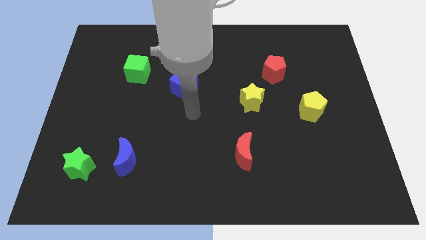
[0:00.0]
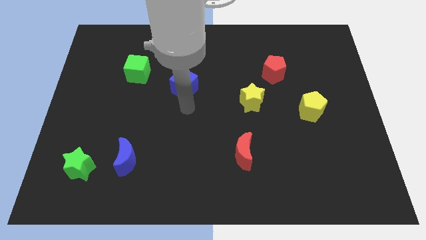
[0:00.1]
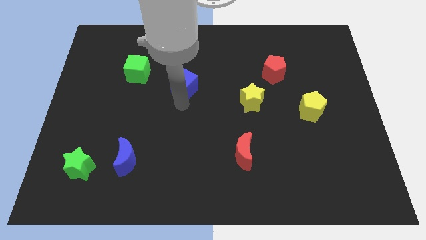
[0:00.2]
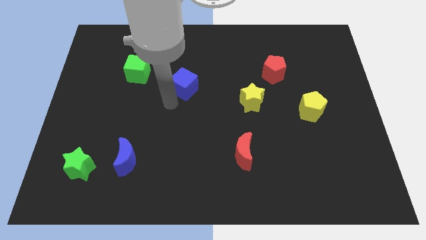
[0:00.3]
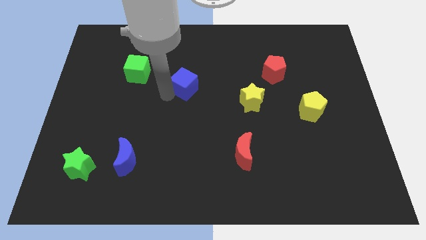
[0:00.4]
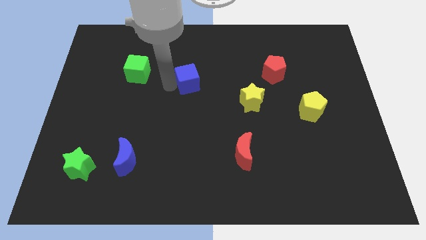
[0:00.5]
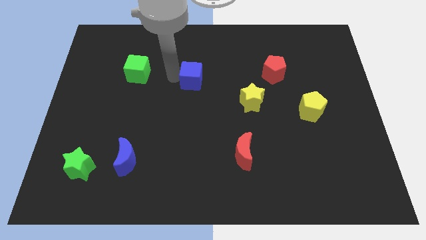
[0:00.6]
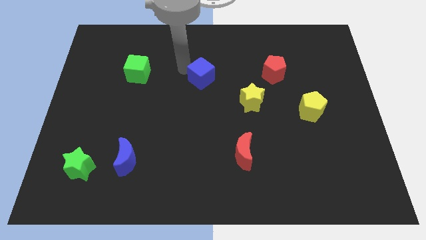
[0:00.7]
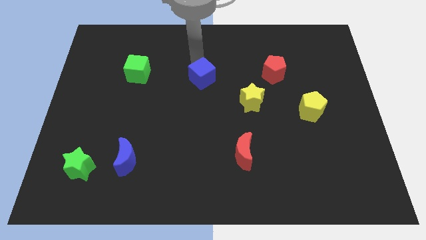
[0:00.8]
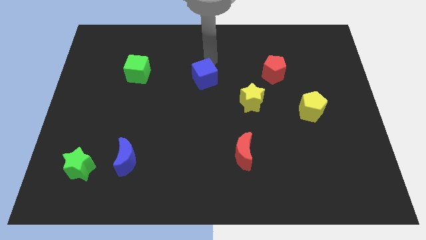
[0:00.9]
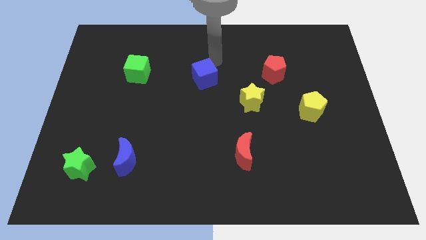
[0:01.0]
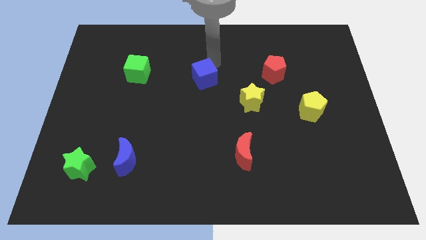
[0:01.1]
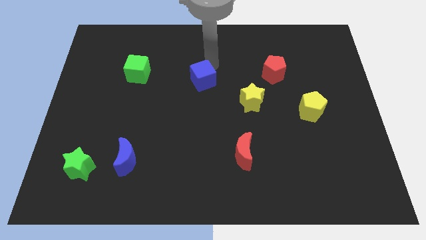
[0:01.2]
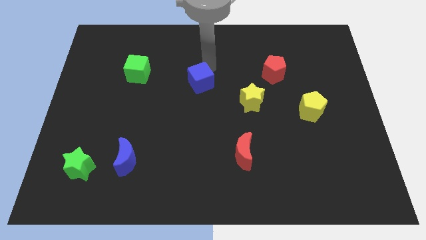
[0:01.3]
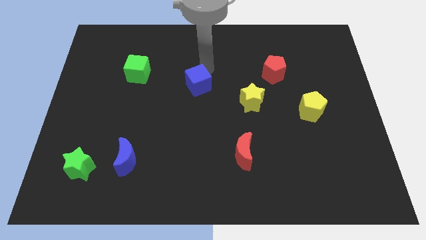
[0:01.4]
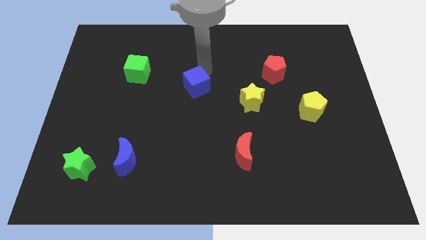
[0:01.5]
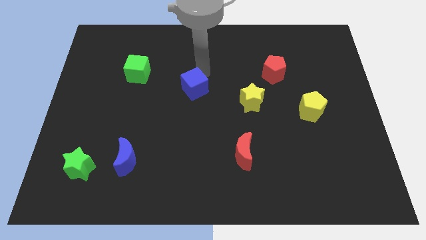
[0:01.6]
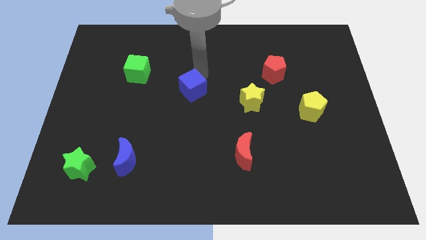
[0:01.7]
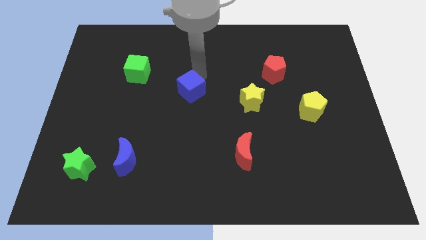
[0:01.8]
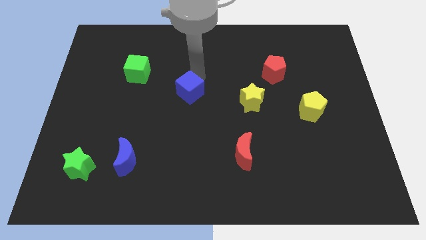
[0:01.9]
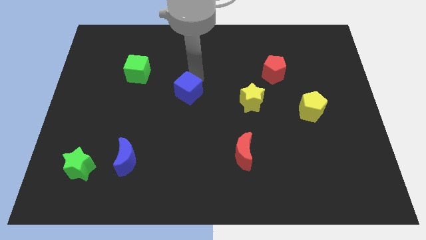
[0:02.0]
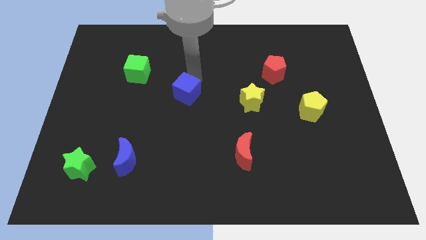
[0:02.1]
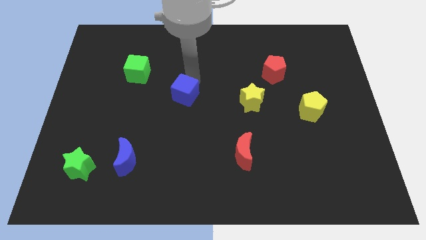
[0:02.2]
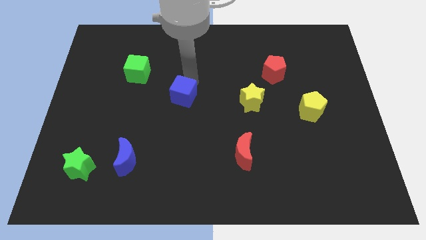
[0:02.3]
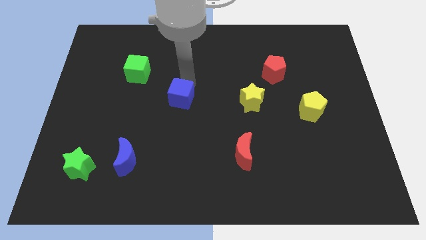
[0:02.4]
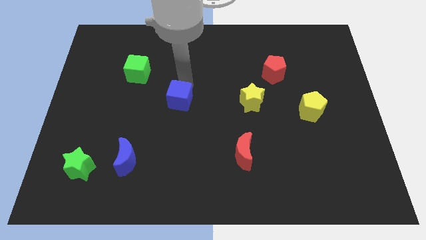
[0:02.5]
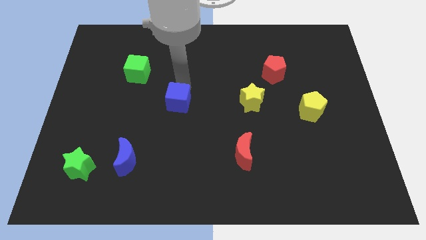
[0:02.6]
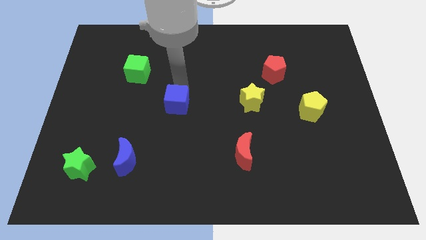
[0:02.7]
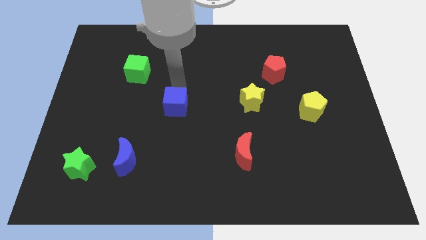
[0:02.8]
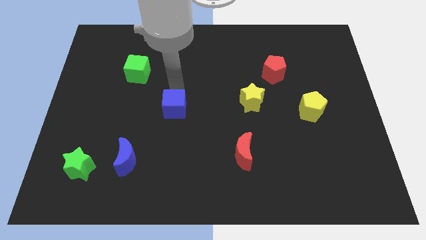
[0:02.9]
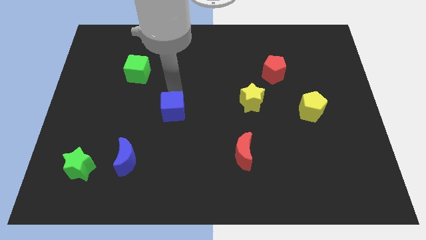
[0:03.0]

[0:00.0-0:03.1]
move the blue cube down a little

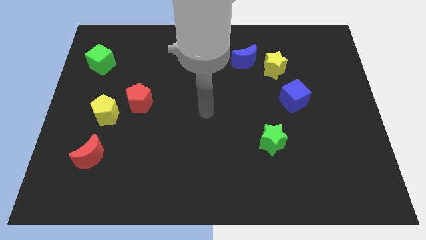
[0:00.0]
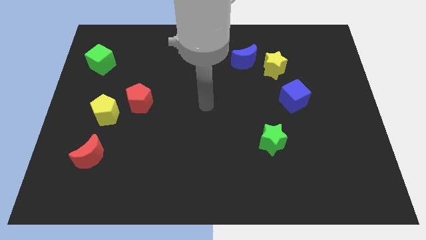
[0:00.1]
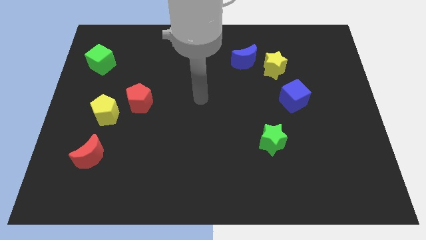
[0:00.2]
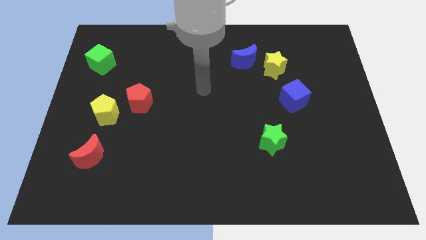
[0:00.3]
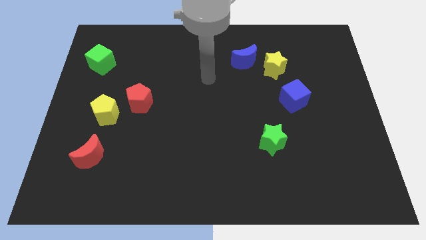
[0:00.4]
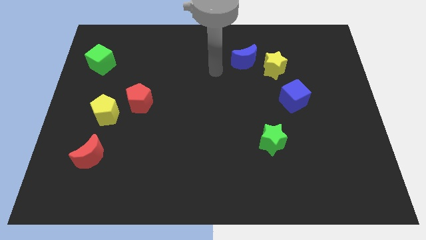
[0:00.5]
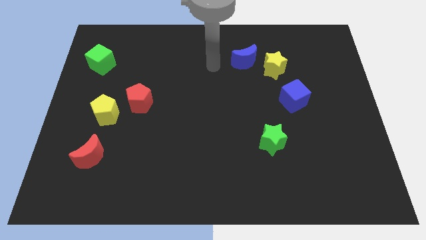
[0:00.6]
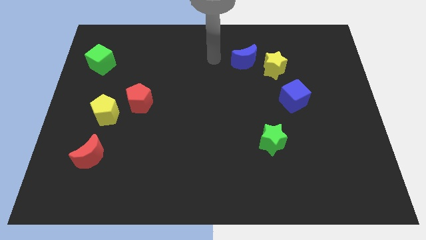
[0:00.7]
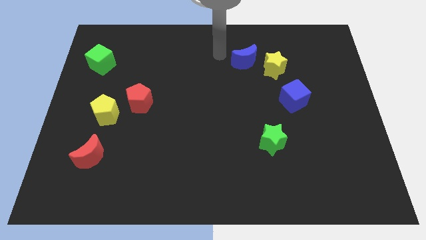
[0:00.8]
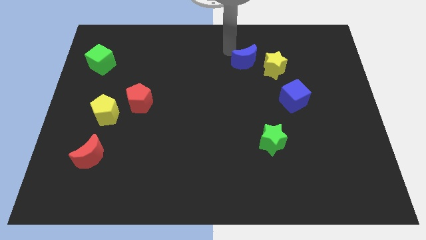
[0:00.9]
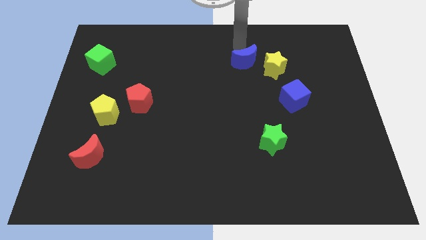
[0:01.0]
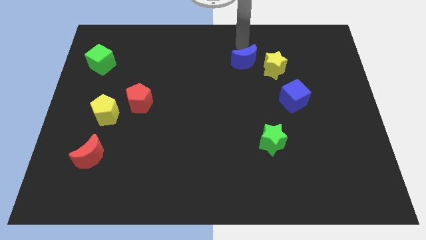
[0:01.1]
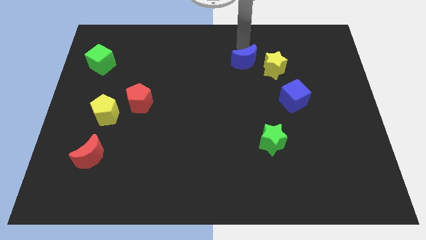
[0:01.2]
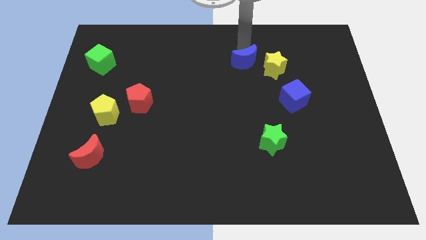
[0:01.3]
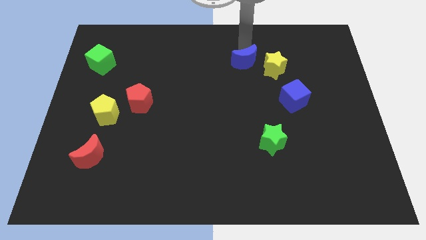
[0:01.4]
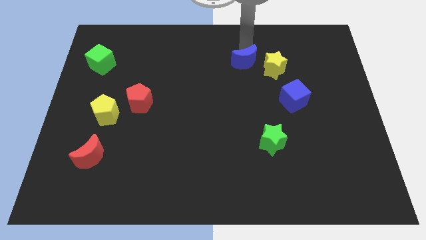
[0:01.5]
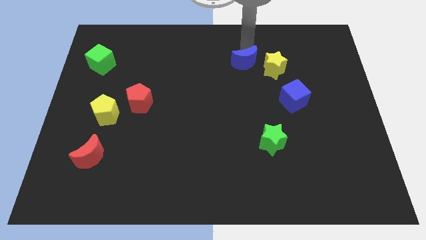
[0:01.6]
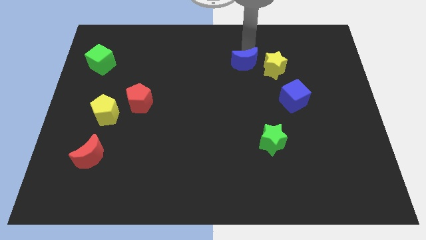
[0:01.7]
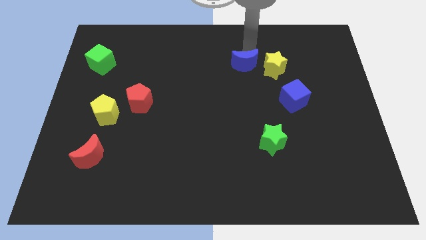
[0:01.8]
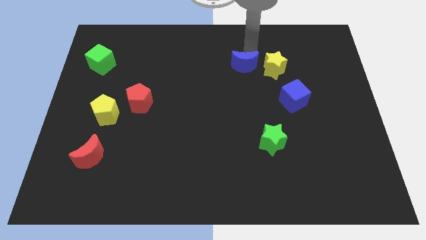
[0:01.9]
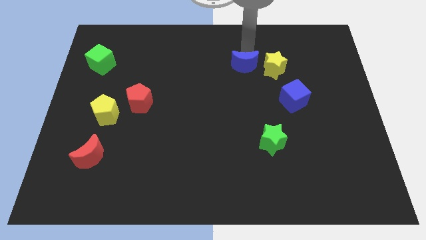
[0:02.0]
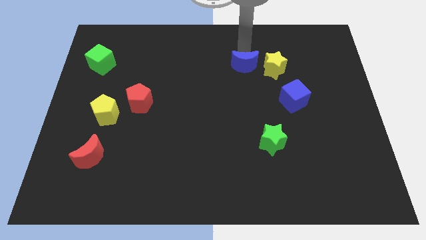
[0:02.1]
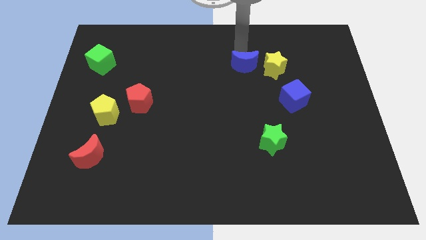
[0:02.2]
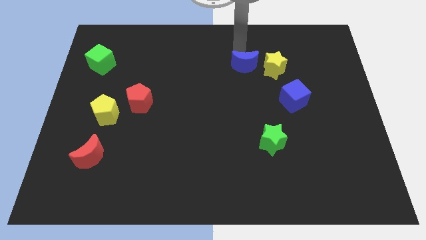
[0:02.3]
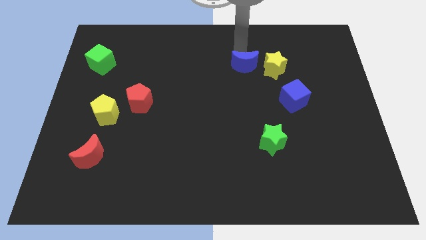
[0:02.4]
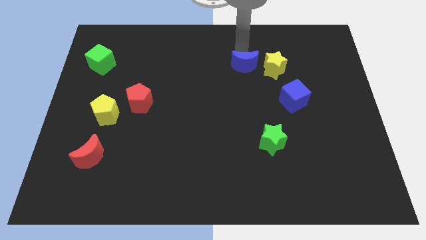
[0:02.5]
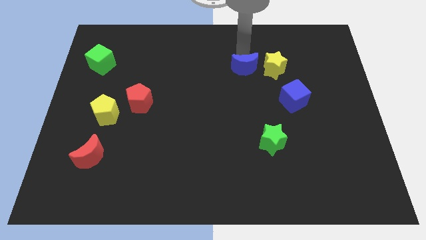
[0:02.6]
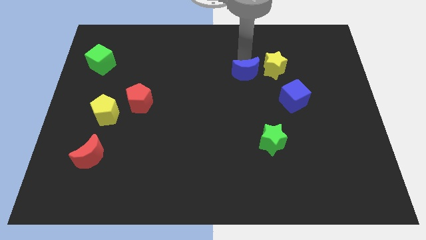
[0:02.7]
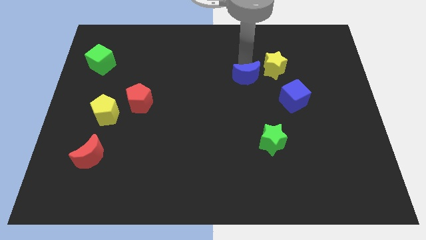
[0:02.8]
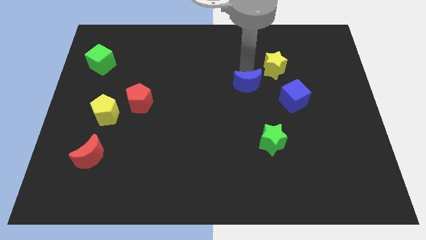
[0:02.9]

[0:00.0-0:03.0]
move the blue moon slightly downwards

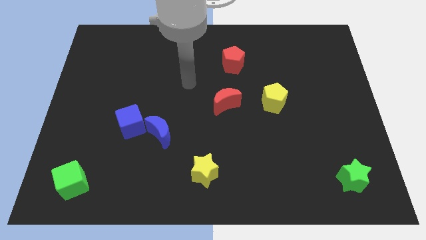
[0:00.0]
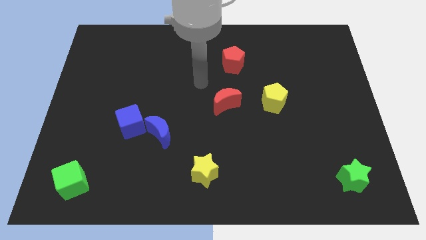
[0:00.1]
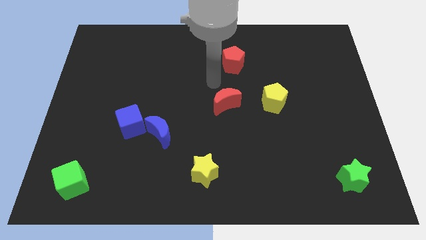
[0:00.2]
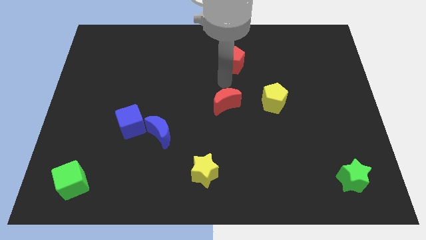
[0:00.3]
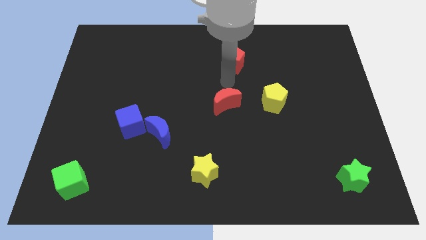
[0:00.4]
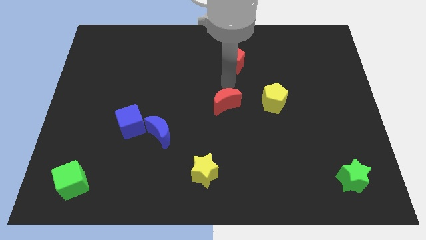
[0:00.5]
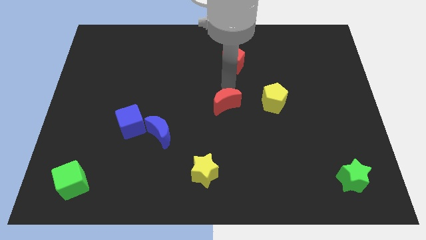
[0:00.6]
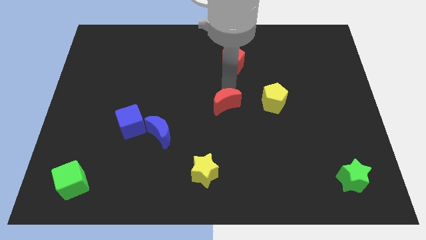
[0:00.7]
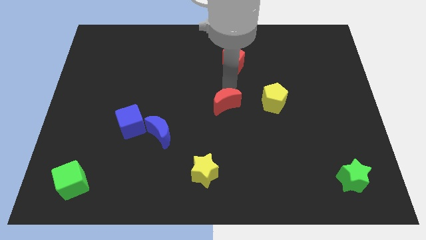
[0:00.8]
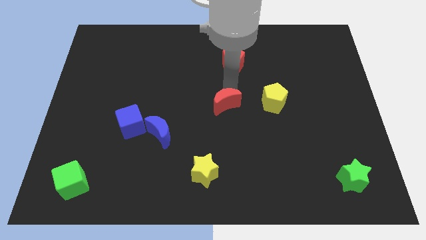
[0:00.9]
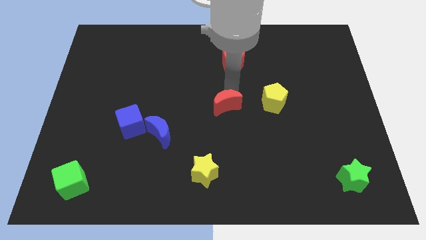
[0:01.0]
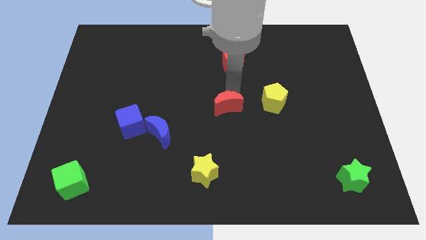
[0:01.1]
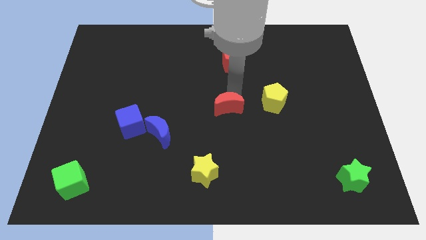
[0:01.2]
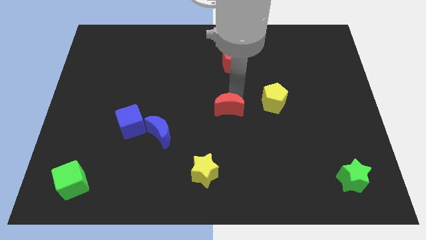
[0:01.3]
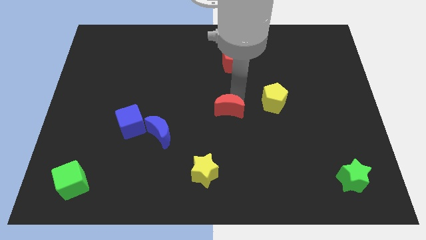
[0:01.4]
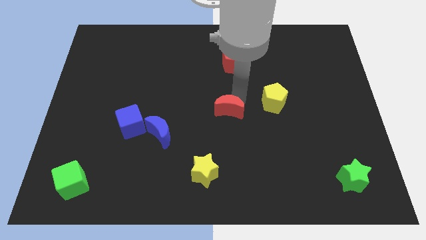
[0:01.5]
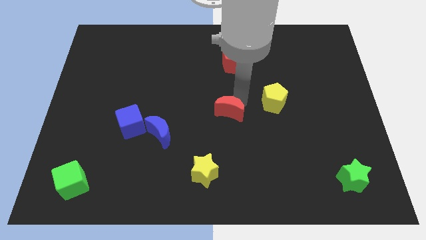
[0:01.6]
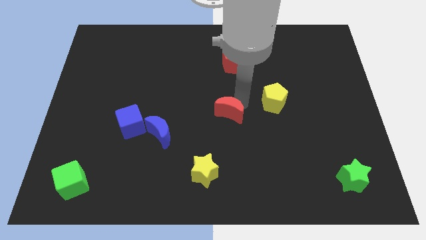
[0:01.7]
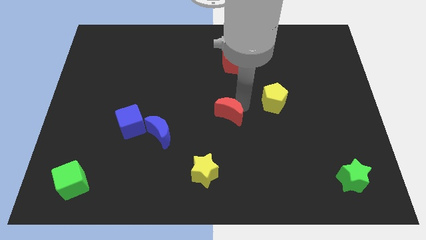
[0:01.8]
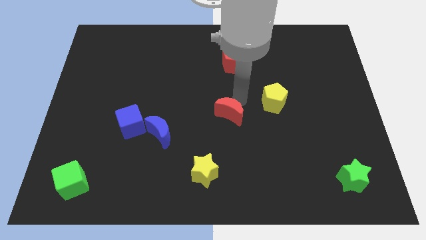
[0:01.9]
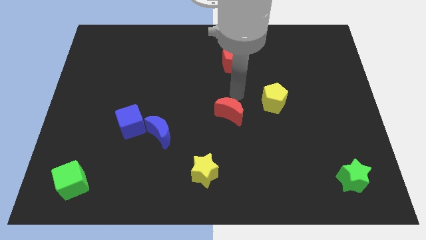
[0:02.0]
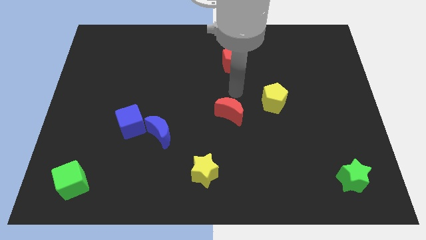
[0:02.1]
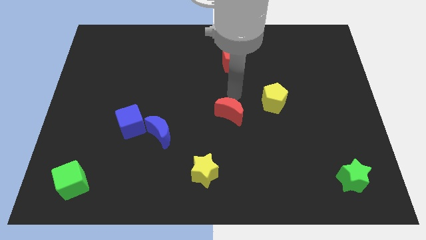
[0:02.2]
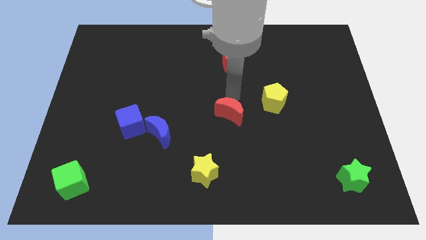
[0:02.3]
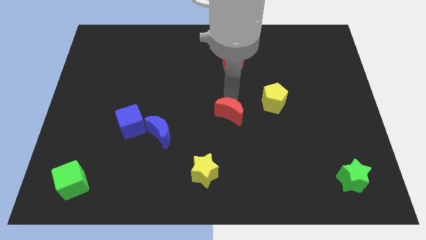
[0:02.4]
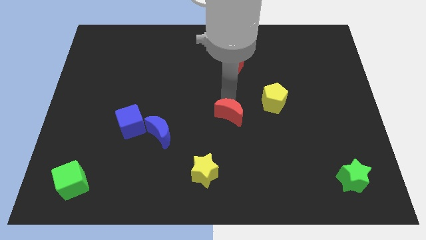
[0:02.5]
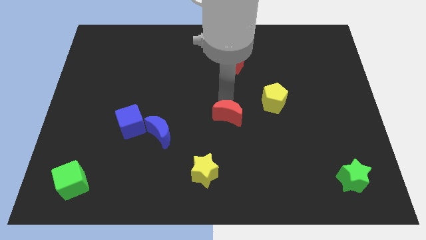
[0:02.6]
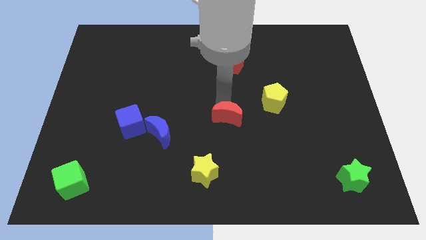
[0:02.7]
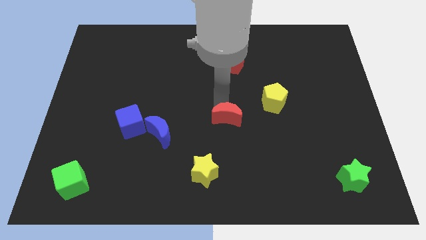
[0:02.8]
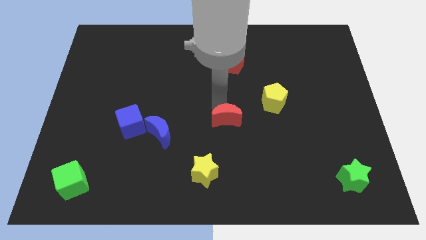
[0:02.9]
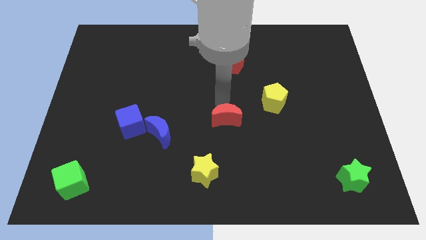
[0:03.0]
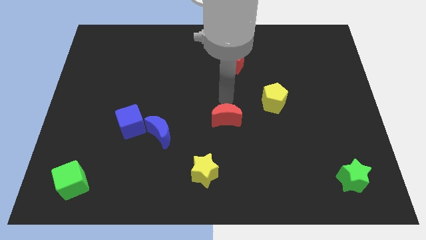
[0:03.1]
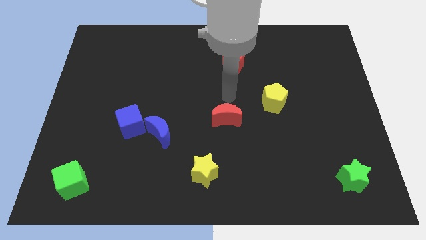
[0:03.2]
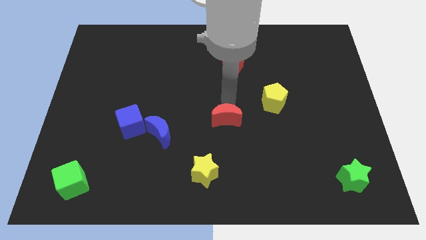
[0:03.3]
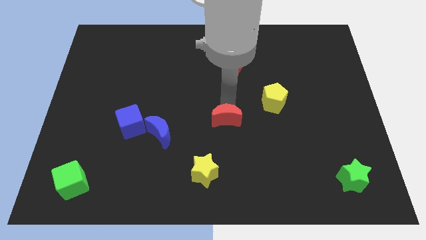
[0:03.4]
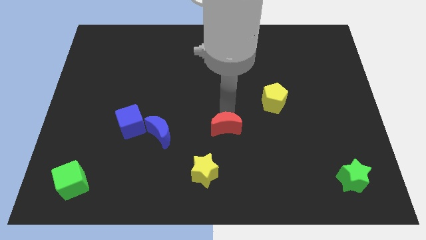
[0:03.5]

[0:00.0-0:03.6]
slightly slide the red moon downwards
